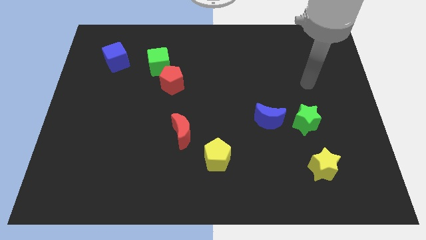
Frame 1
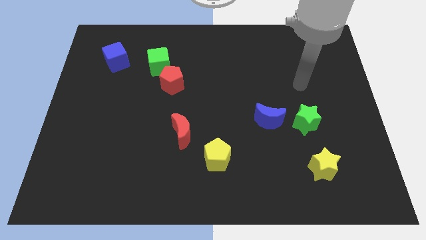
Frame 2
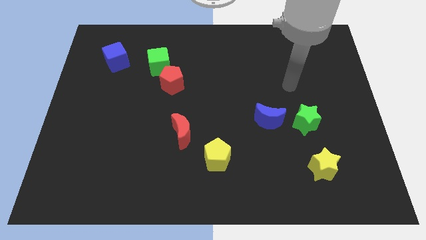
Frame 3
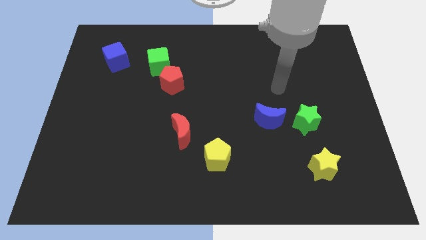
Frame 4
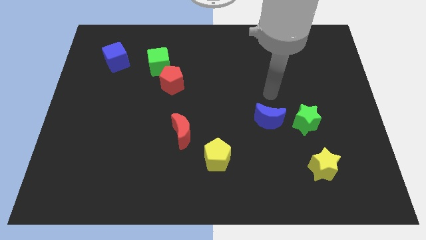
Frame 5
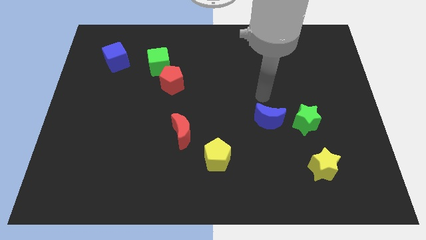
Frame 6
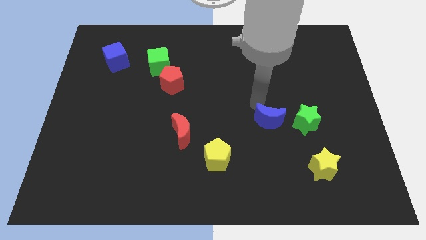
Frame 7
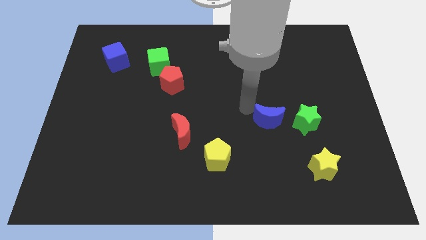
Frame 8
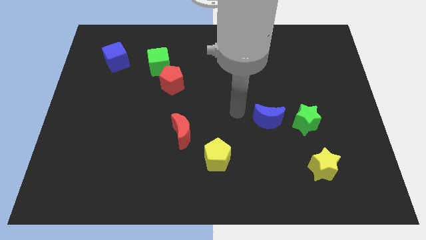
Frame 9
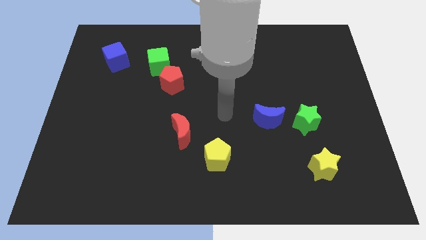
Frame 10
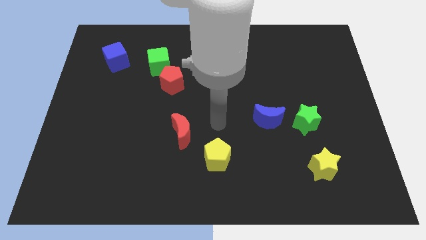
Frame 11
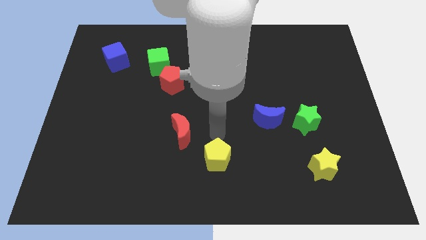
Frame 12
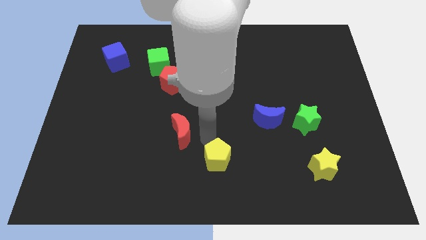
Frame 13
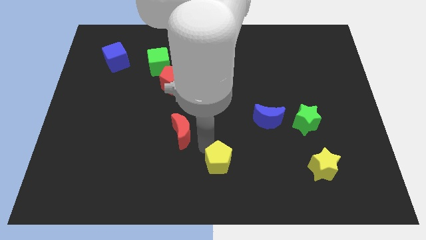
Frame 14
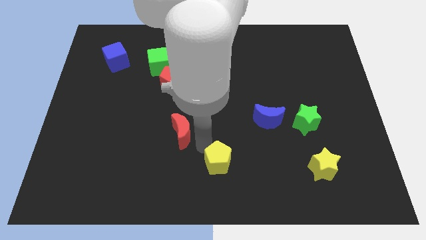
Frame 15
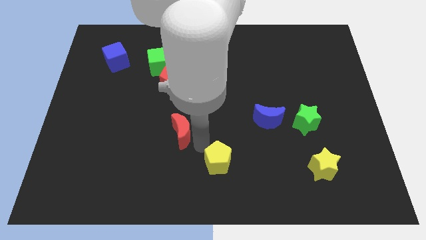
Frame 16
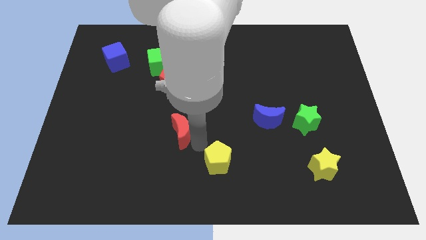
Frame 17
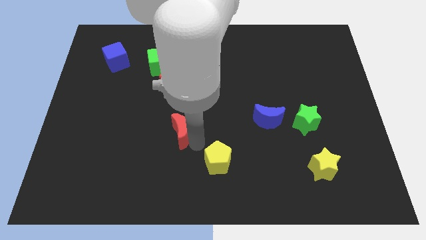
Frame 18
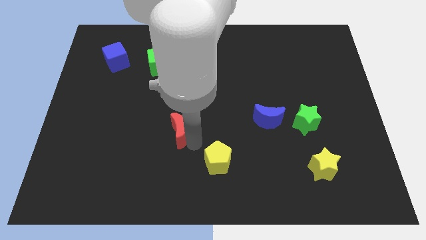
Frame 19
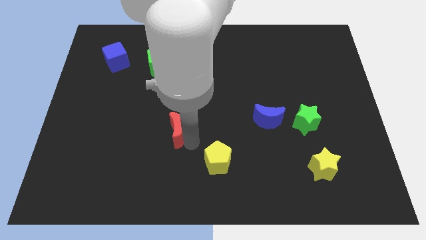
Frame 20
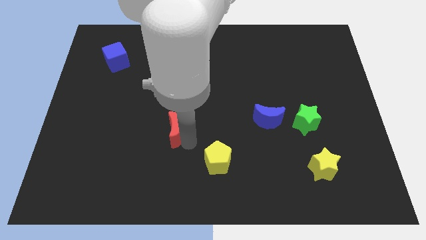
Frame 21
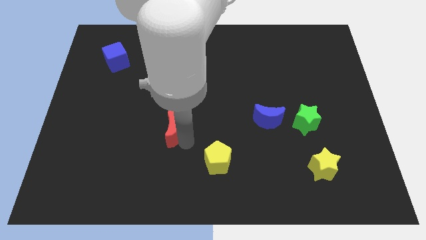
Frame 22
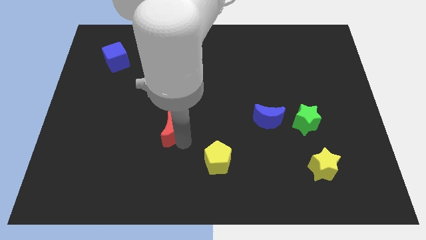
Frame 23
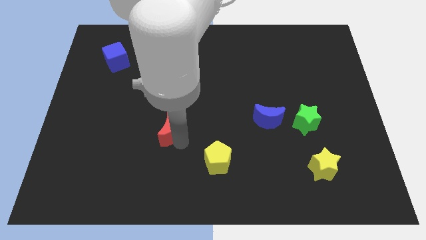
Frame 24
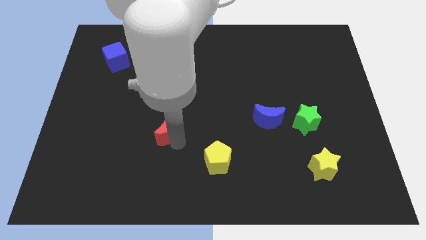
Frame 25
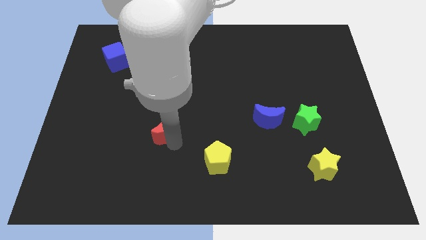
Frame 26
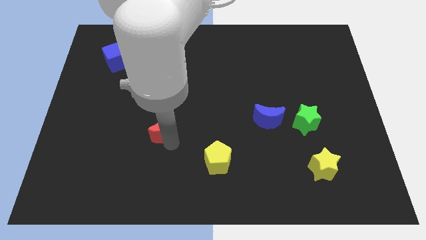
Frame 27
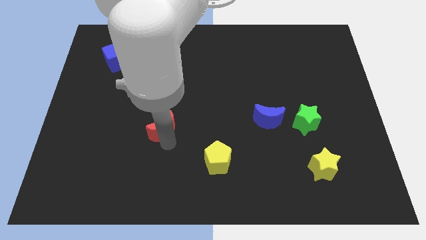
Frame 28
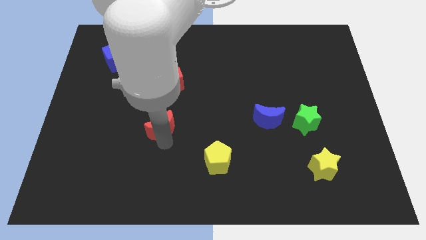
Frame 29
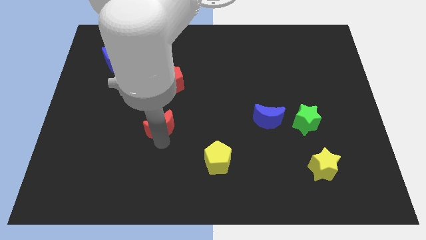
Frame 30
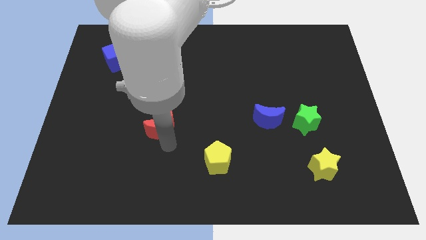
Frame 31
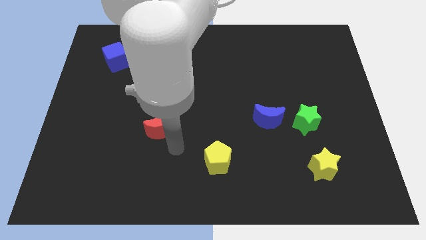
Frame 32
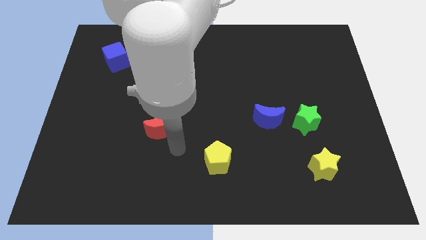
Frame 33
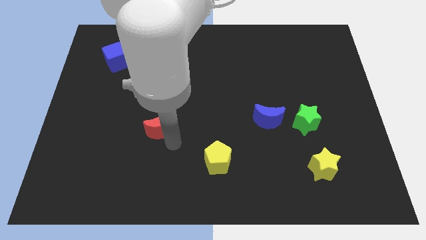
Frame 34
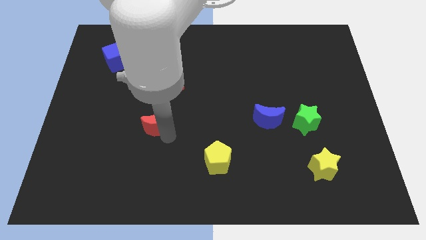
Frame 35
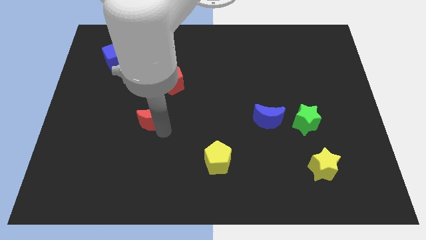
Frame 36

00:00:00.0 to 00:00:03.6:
slightly push the red moon diagonally up and left

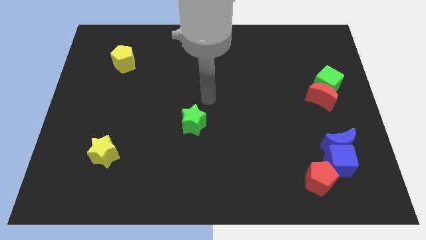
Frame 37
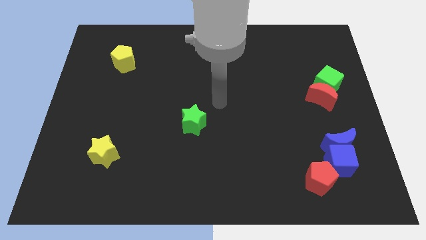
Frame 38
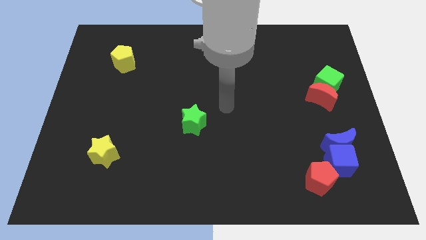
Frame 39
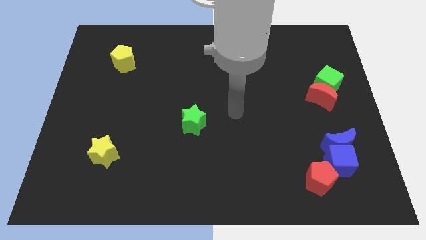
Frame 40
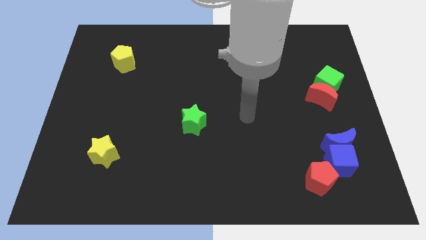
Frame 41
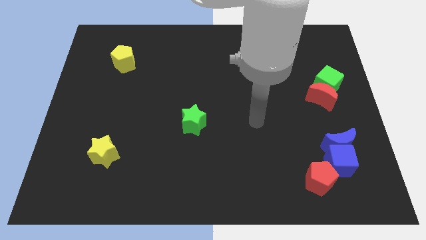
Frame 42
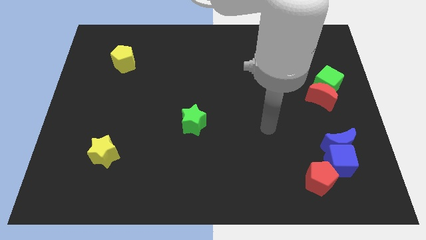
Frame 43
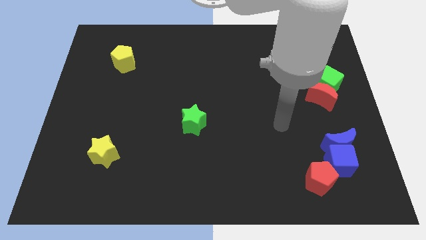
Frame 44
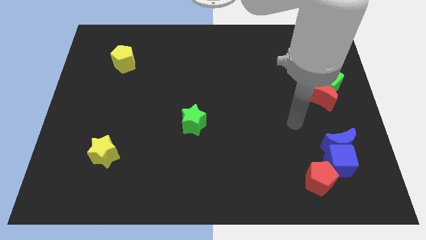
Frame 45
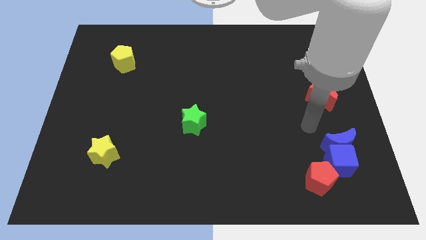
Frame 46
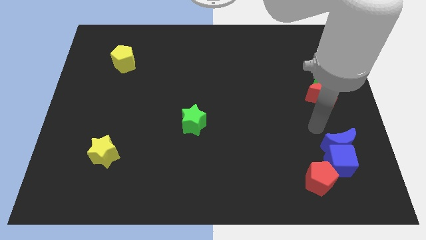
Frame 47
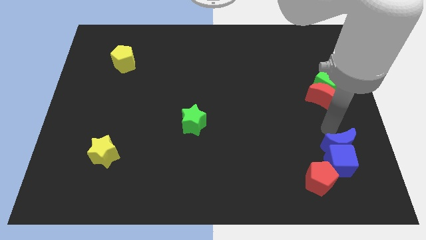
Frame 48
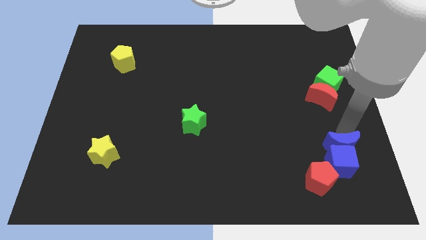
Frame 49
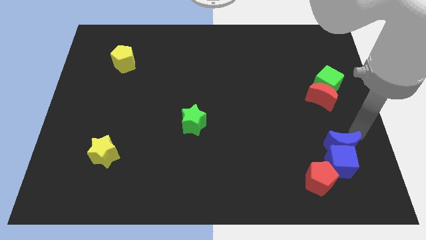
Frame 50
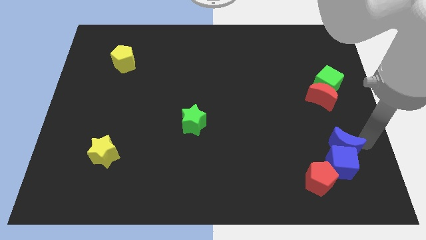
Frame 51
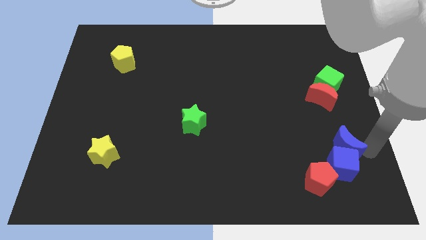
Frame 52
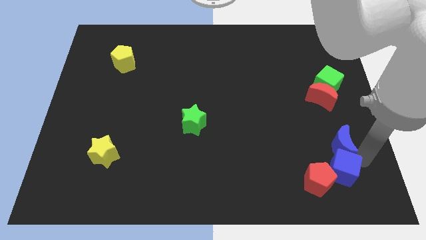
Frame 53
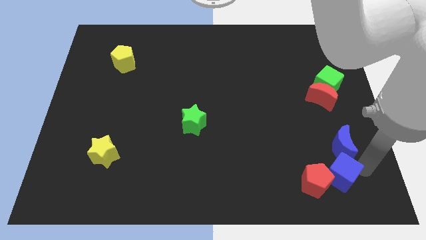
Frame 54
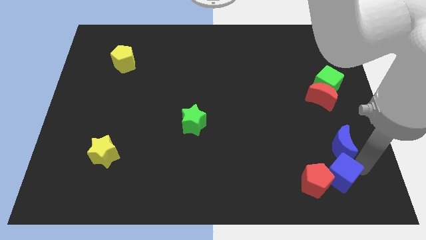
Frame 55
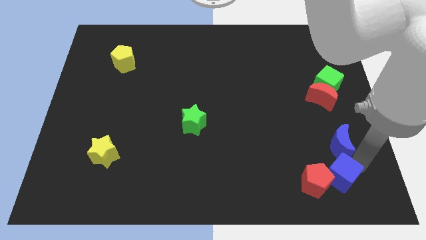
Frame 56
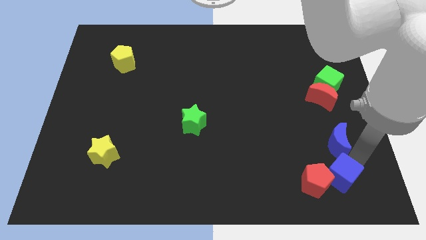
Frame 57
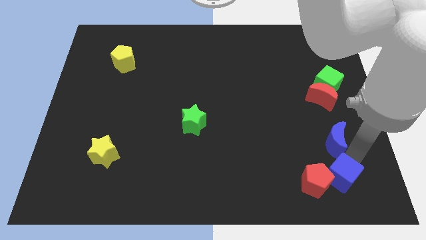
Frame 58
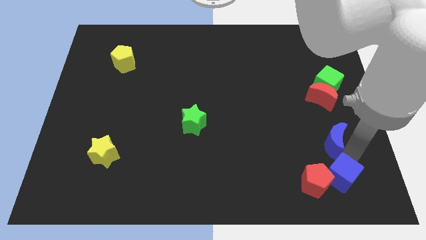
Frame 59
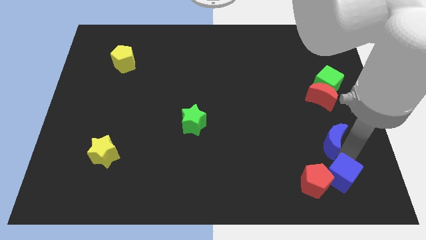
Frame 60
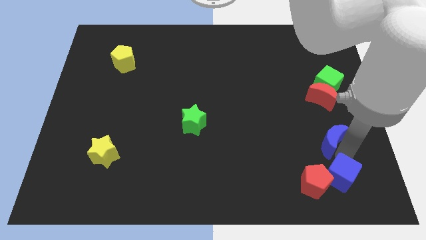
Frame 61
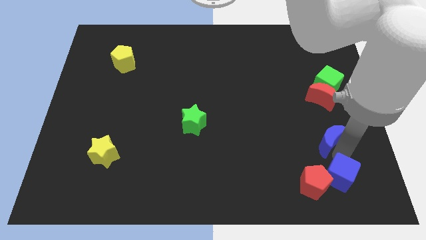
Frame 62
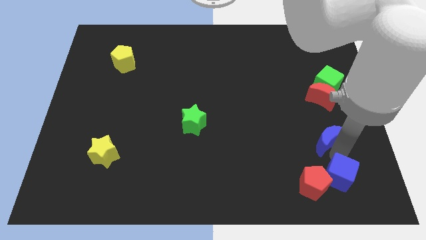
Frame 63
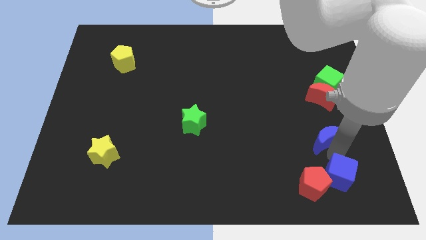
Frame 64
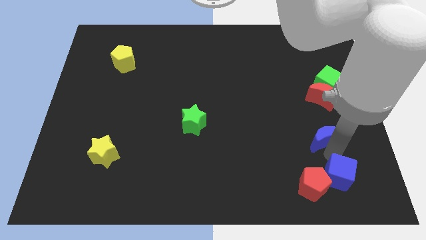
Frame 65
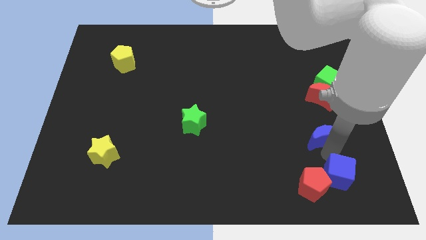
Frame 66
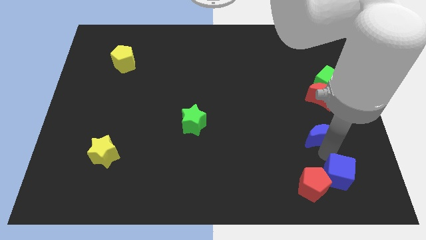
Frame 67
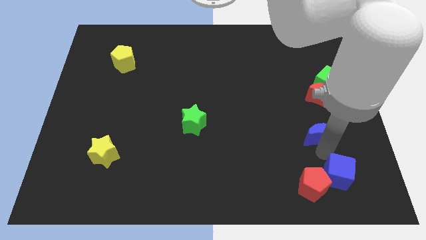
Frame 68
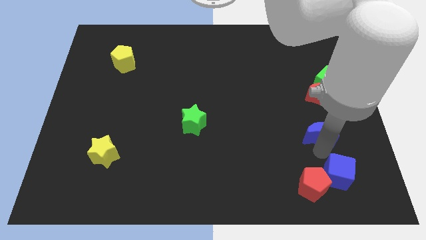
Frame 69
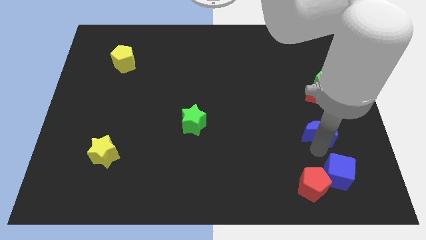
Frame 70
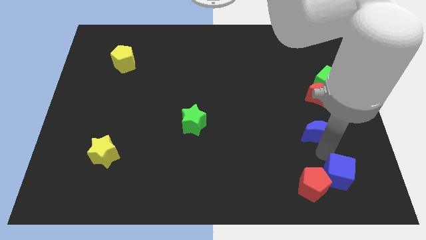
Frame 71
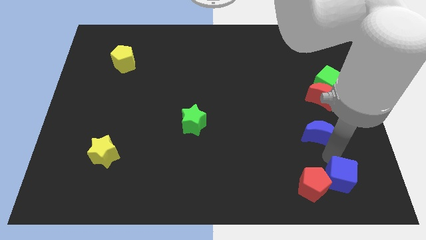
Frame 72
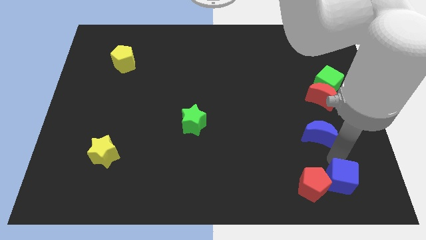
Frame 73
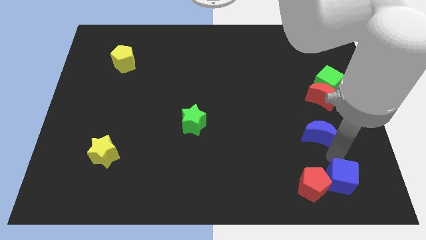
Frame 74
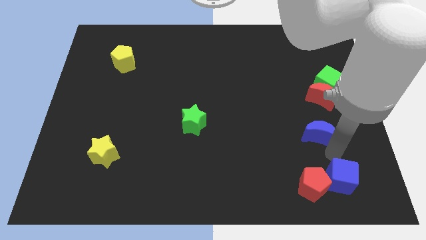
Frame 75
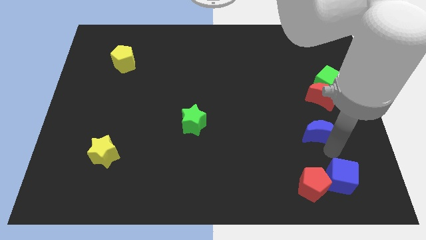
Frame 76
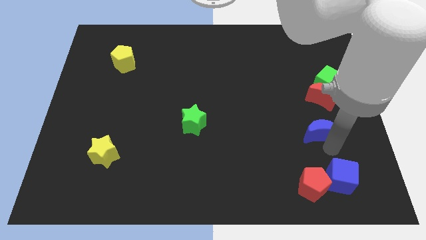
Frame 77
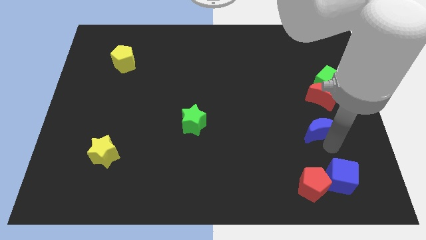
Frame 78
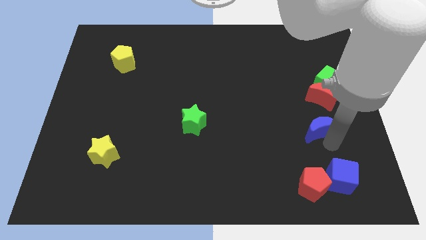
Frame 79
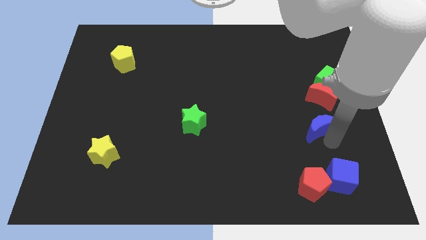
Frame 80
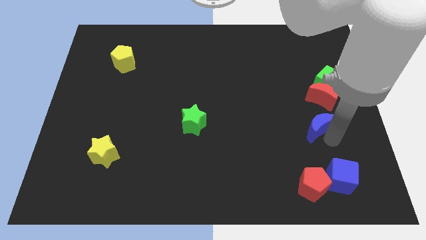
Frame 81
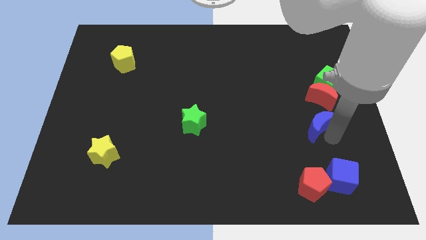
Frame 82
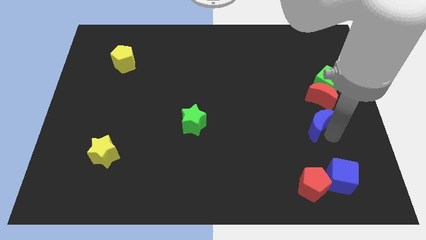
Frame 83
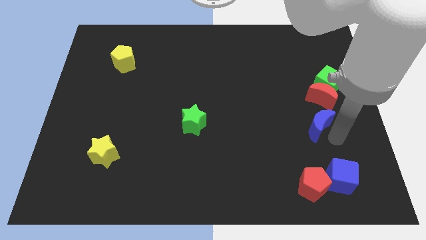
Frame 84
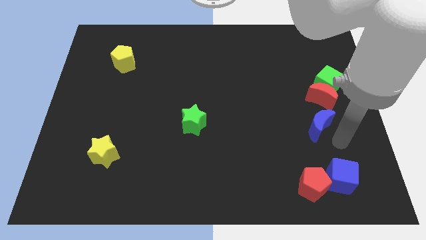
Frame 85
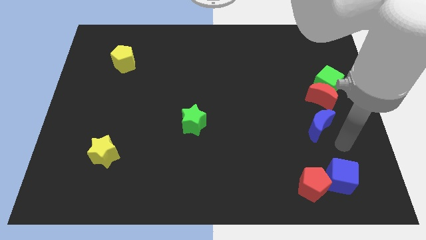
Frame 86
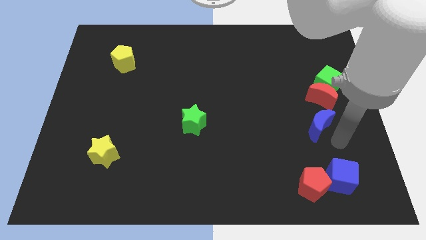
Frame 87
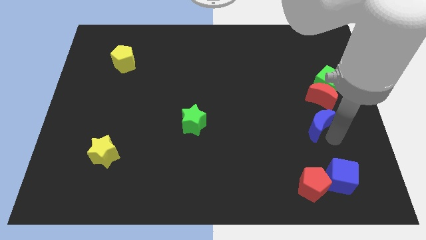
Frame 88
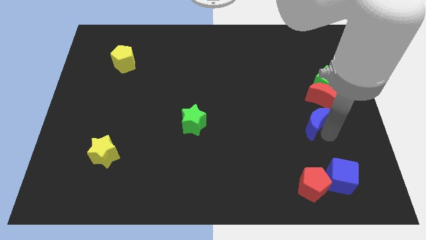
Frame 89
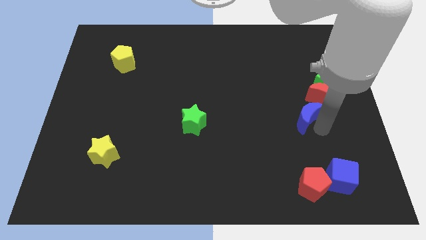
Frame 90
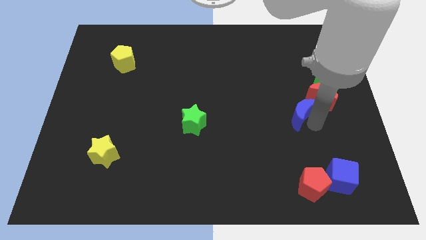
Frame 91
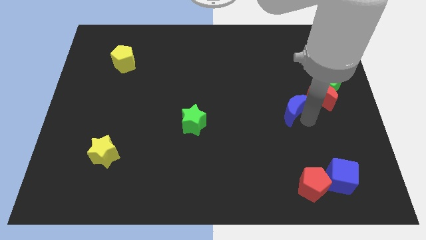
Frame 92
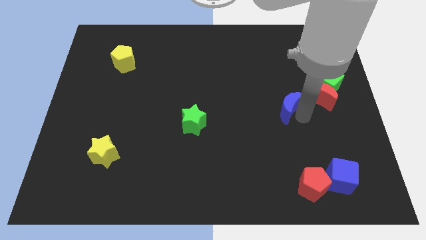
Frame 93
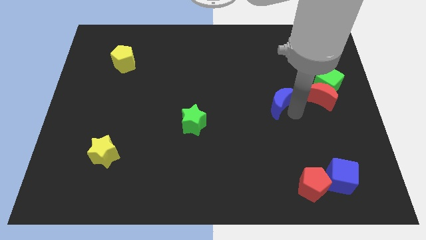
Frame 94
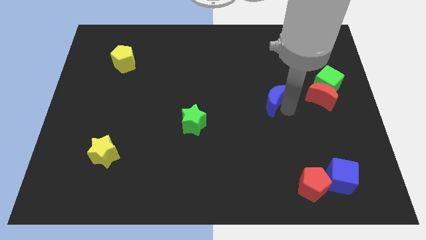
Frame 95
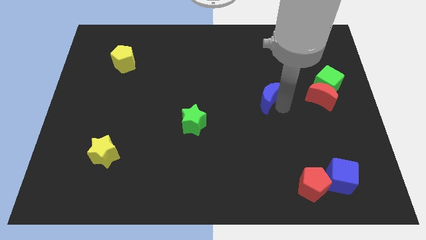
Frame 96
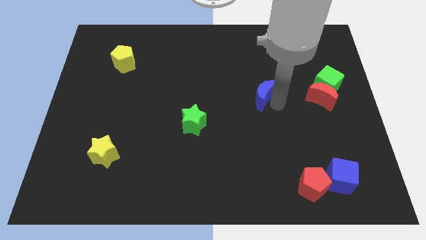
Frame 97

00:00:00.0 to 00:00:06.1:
push the blue moon up and to the left diagonally
